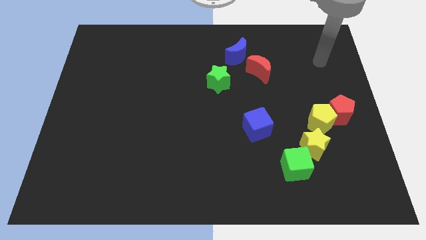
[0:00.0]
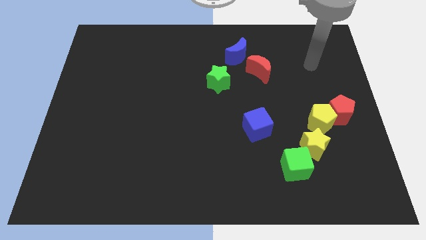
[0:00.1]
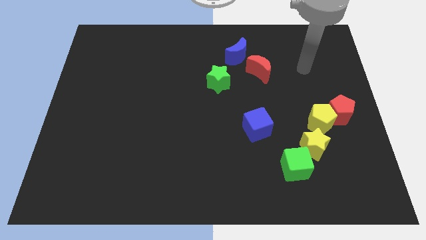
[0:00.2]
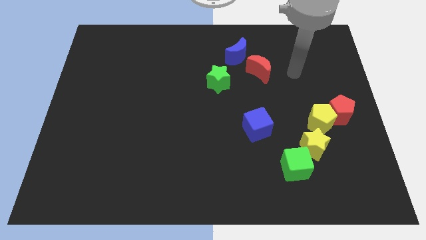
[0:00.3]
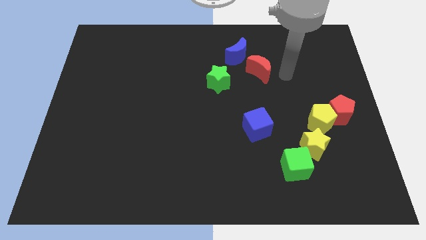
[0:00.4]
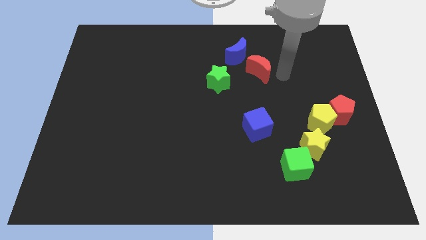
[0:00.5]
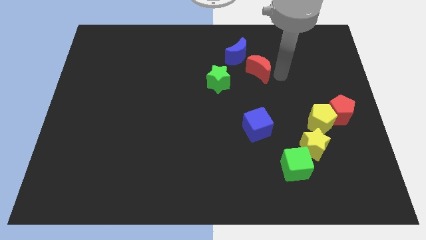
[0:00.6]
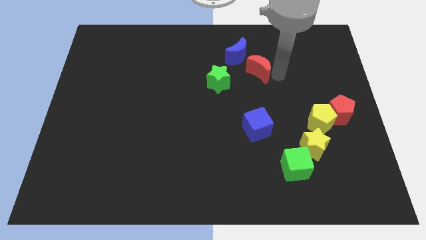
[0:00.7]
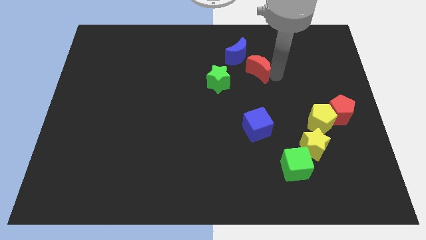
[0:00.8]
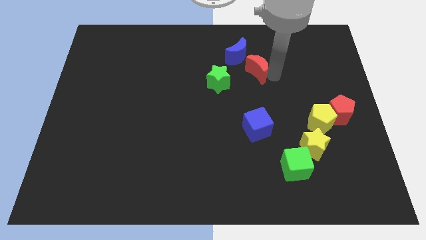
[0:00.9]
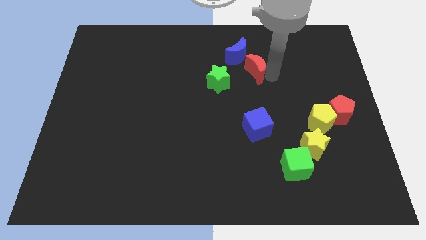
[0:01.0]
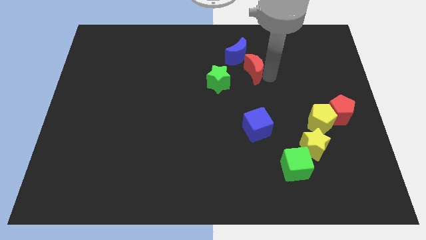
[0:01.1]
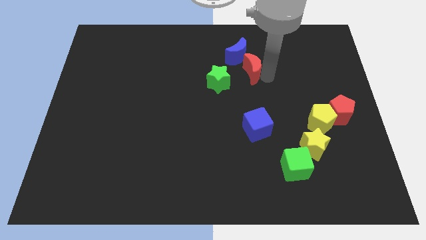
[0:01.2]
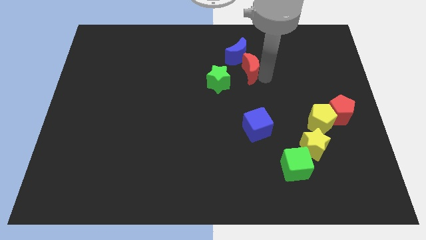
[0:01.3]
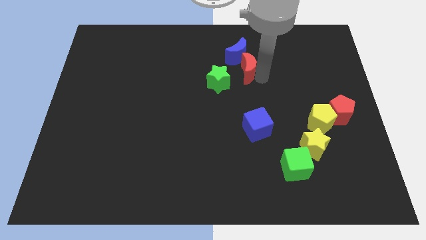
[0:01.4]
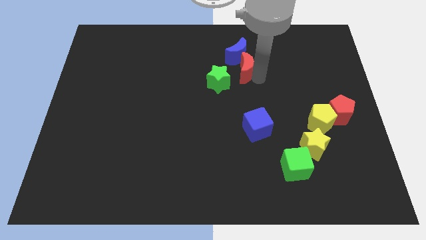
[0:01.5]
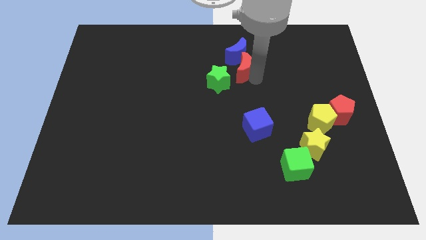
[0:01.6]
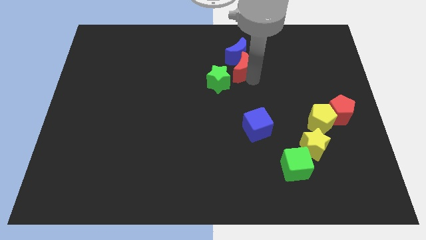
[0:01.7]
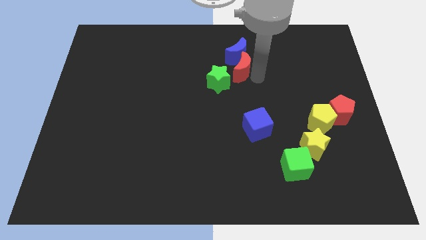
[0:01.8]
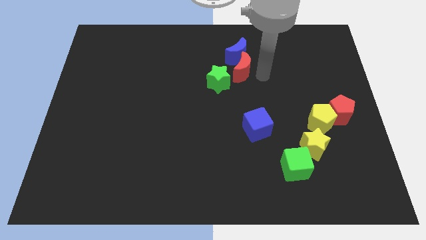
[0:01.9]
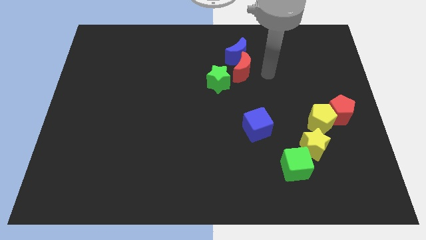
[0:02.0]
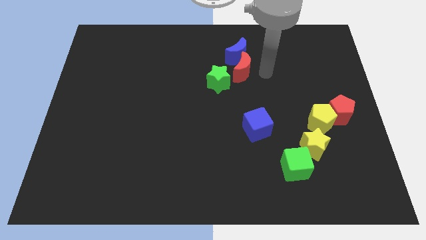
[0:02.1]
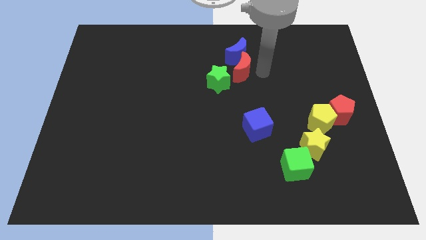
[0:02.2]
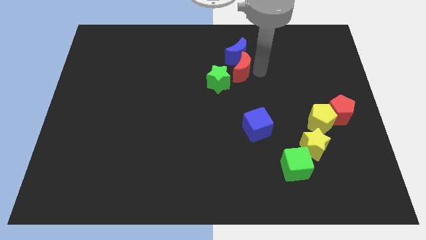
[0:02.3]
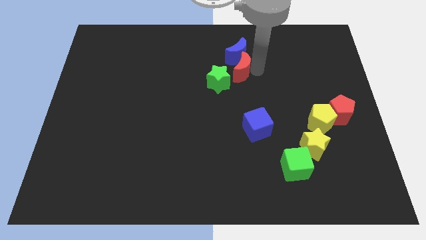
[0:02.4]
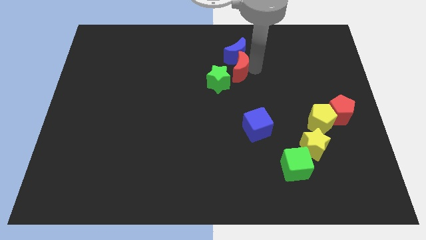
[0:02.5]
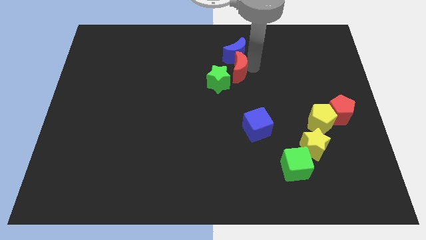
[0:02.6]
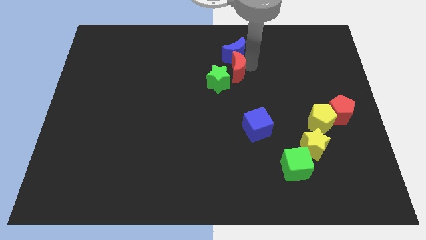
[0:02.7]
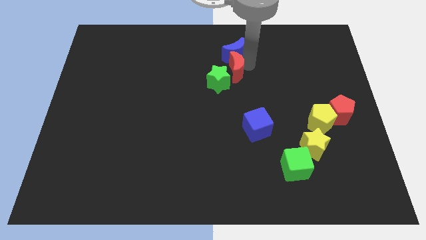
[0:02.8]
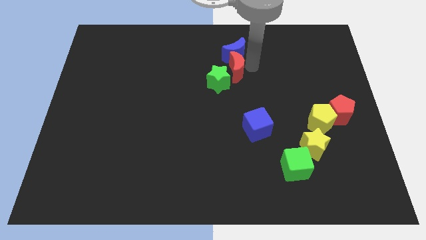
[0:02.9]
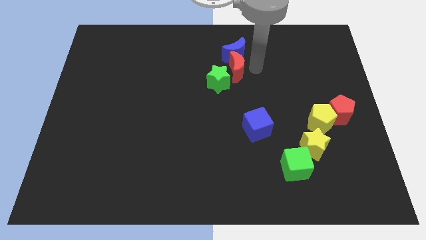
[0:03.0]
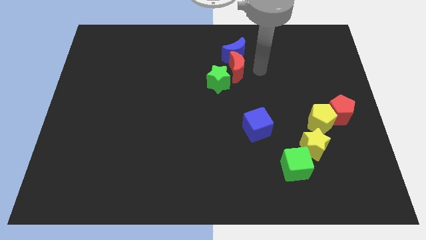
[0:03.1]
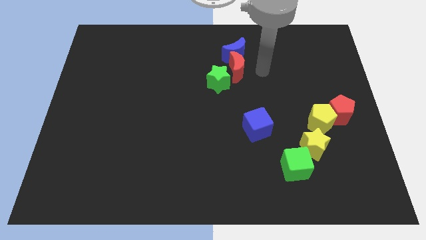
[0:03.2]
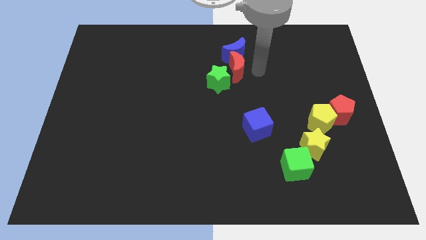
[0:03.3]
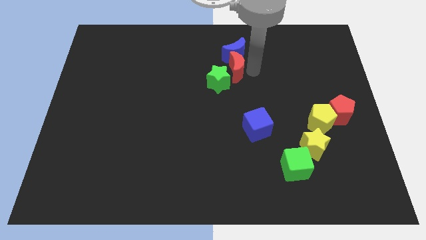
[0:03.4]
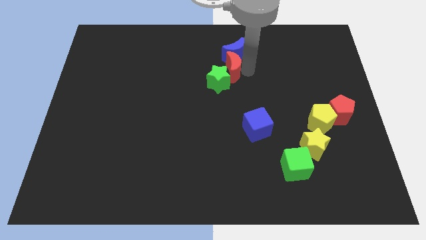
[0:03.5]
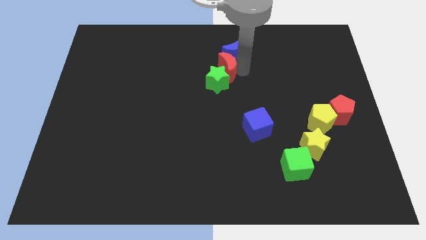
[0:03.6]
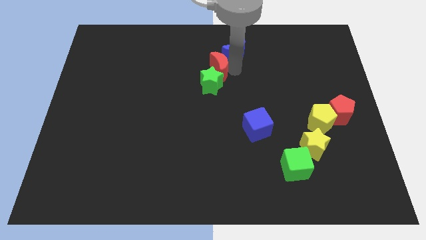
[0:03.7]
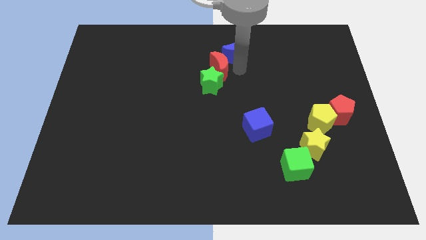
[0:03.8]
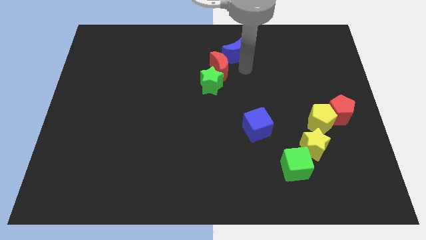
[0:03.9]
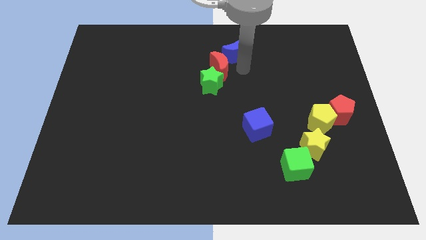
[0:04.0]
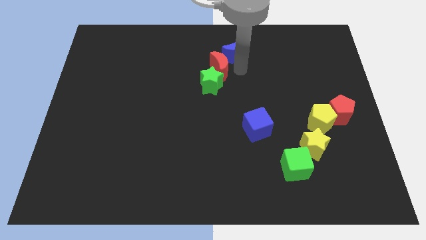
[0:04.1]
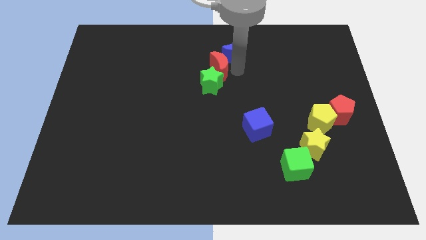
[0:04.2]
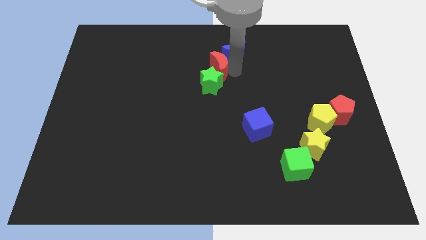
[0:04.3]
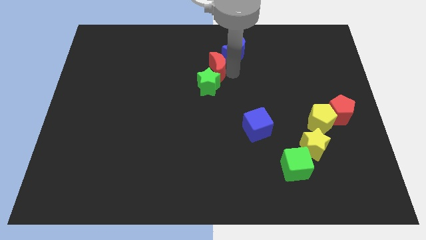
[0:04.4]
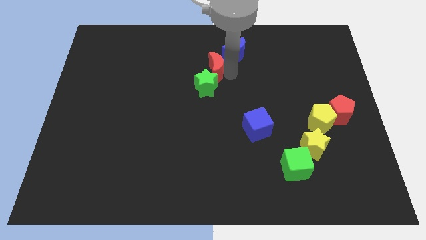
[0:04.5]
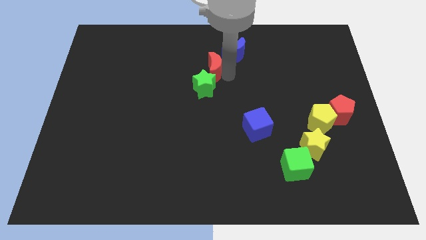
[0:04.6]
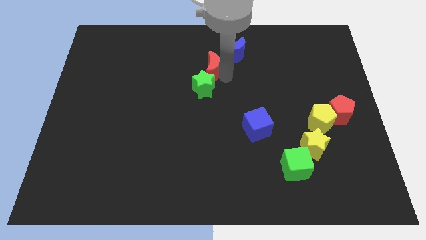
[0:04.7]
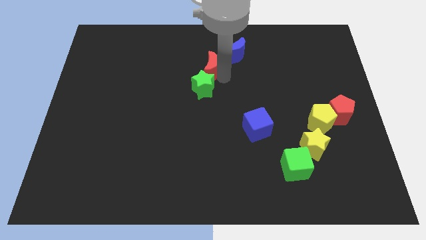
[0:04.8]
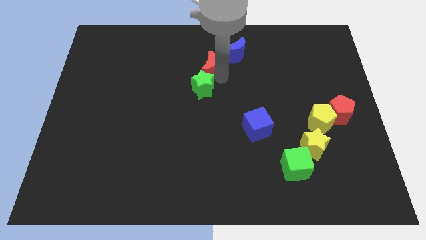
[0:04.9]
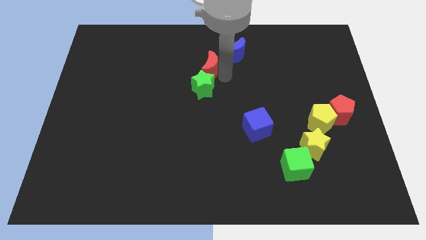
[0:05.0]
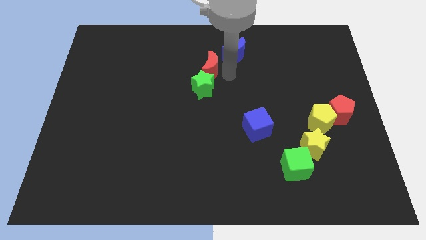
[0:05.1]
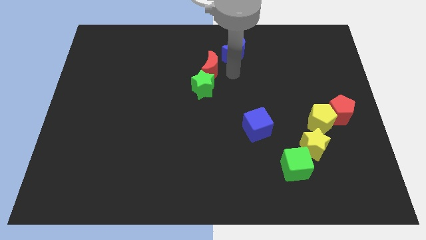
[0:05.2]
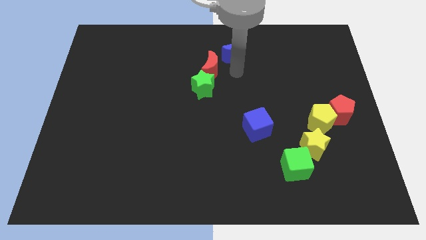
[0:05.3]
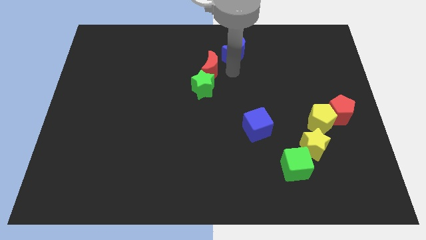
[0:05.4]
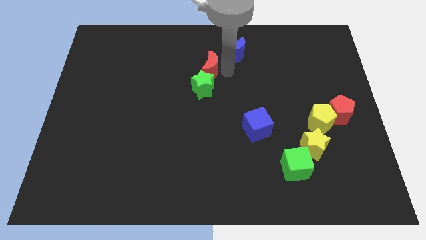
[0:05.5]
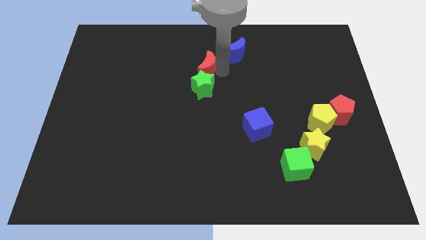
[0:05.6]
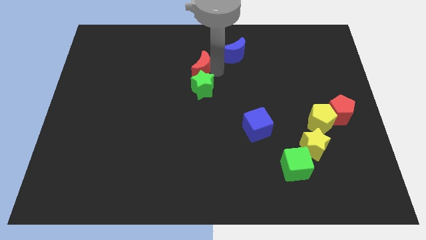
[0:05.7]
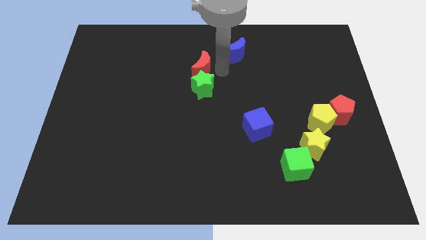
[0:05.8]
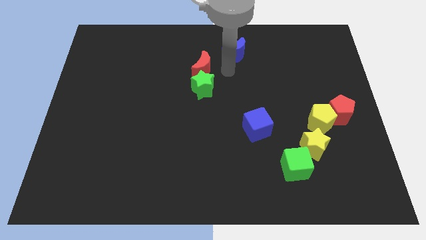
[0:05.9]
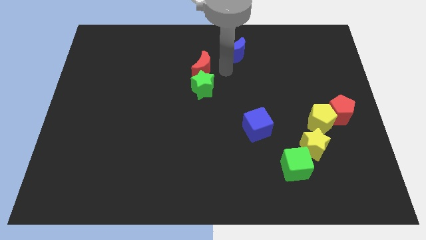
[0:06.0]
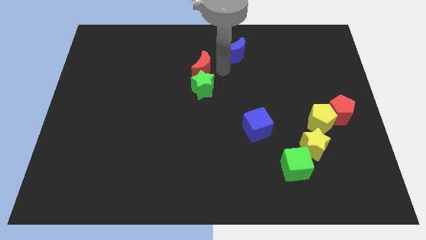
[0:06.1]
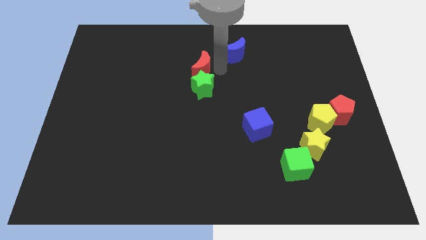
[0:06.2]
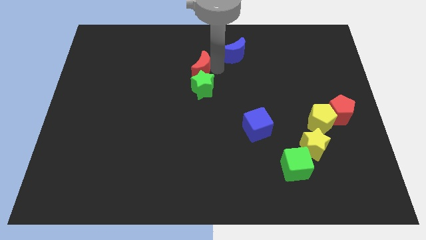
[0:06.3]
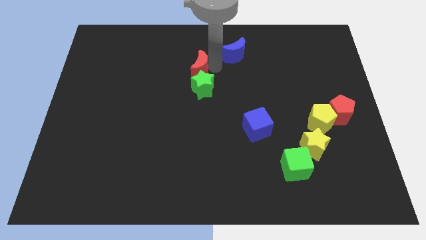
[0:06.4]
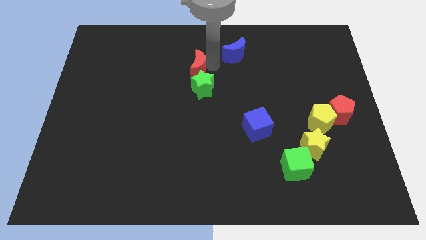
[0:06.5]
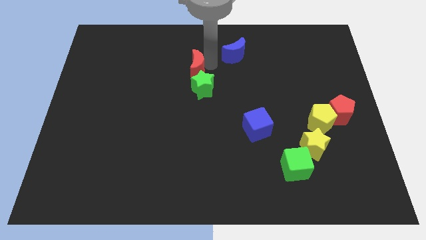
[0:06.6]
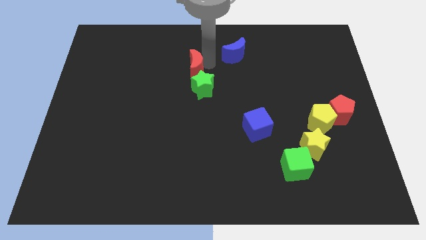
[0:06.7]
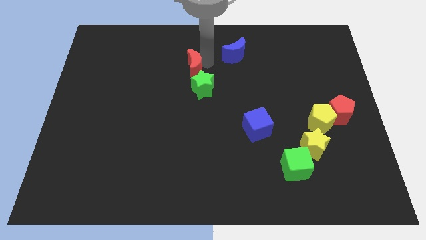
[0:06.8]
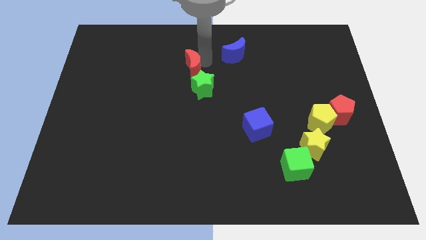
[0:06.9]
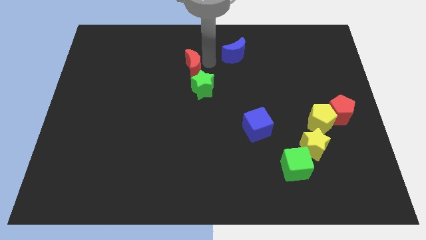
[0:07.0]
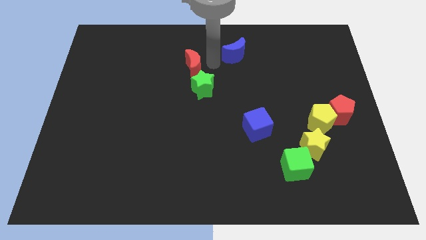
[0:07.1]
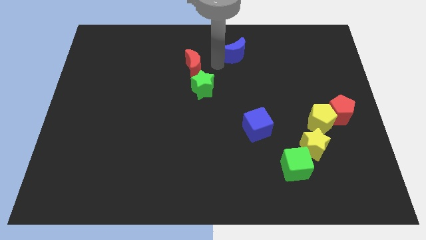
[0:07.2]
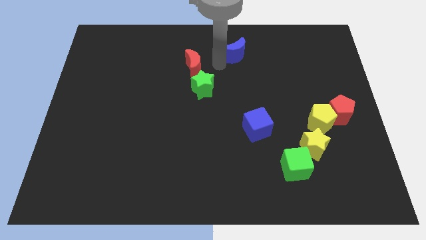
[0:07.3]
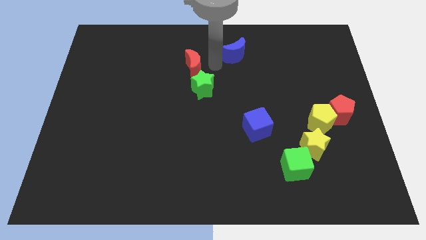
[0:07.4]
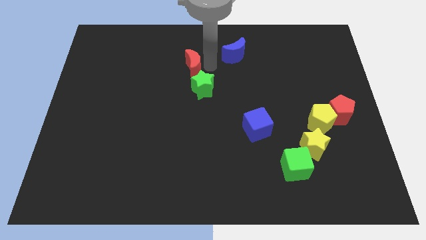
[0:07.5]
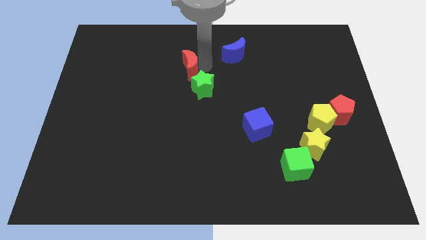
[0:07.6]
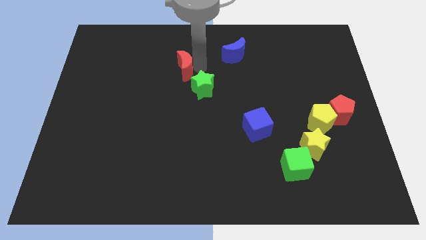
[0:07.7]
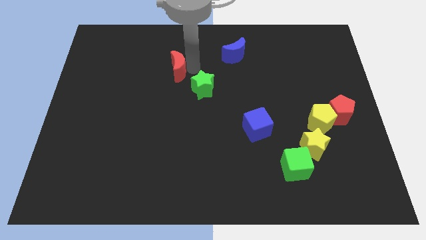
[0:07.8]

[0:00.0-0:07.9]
move the red moon left
